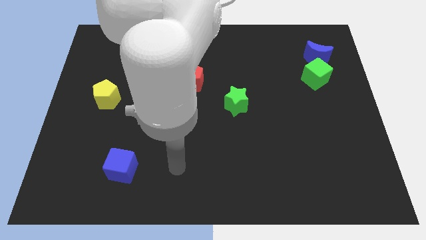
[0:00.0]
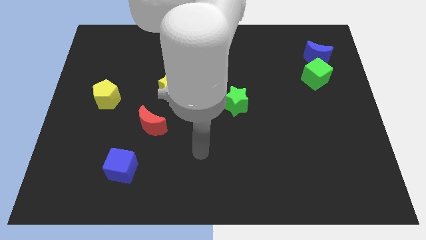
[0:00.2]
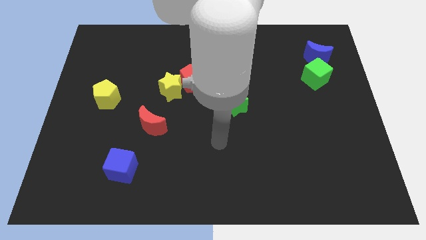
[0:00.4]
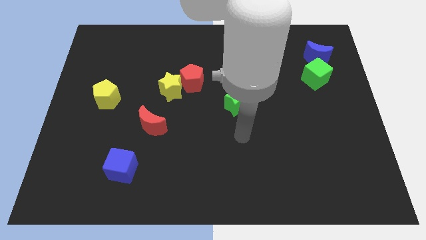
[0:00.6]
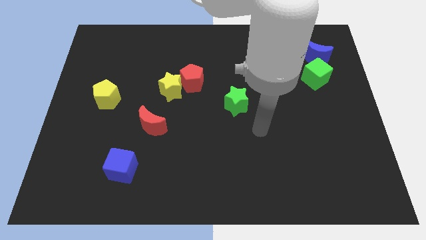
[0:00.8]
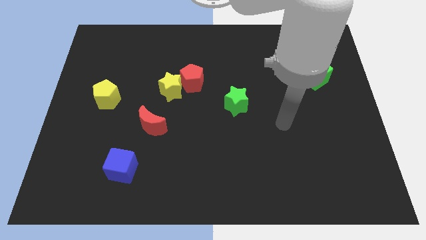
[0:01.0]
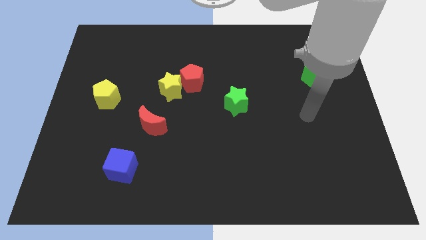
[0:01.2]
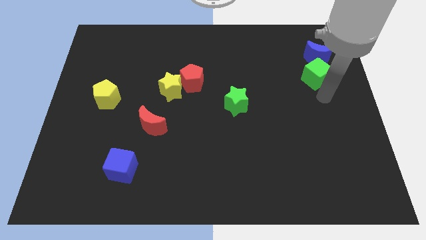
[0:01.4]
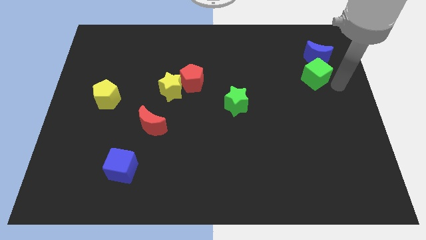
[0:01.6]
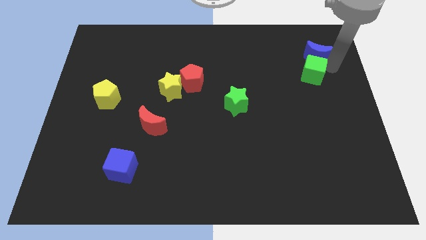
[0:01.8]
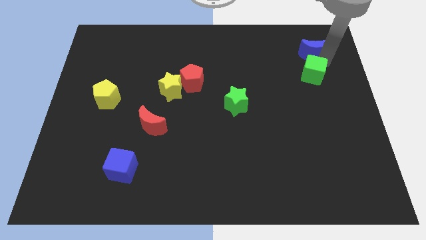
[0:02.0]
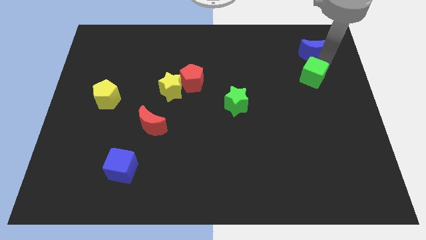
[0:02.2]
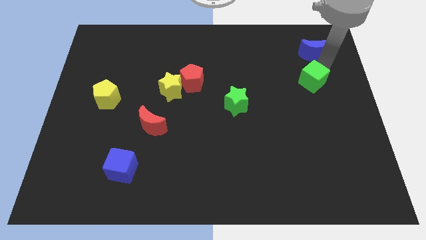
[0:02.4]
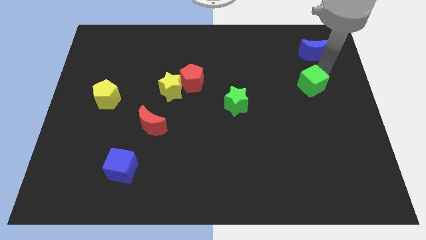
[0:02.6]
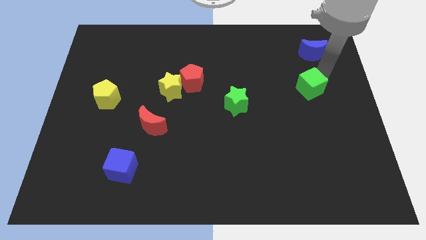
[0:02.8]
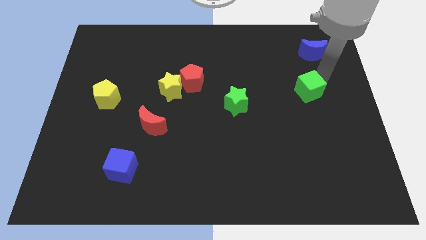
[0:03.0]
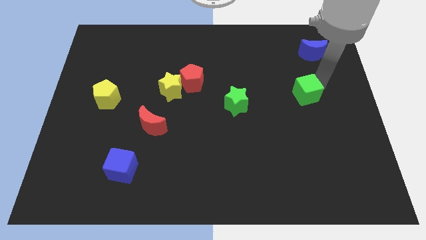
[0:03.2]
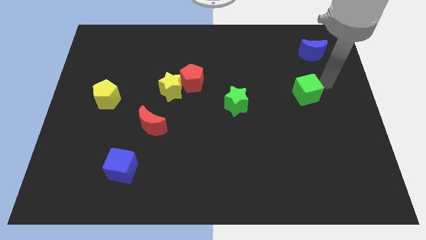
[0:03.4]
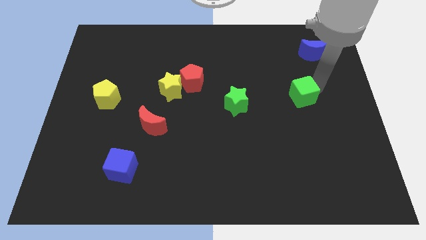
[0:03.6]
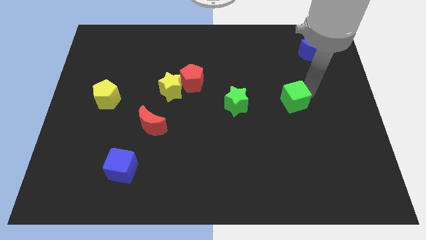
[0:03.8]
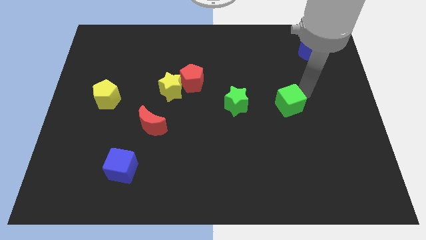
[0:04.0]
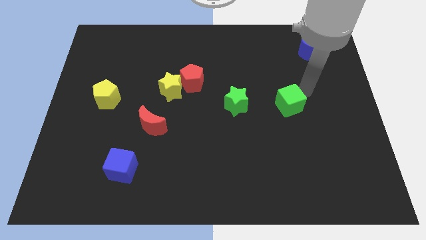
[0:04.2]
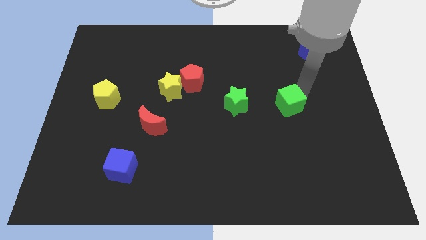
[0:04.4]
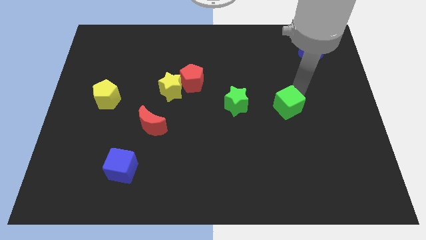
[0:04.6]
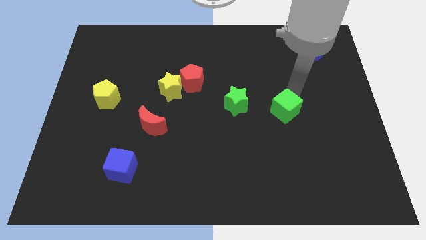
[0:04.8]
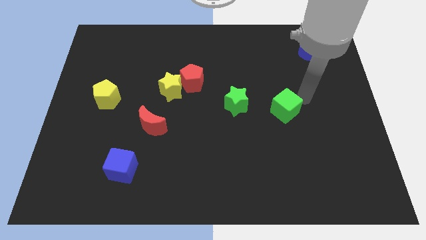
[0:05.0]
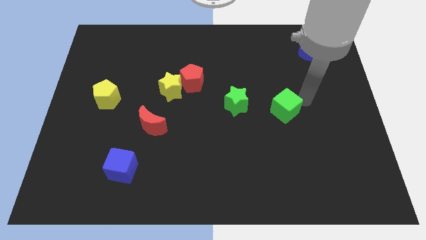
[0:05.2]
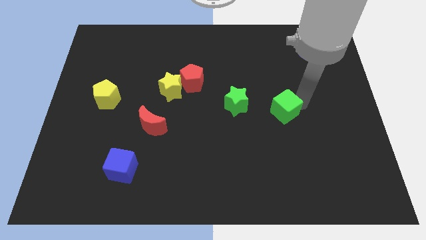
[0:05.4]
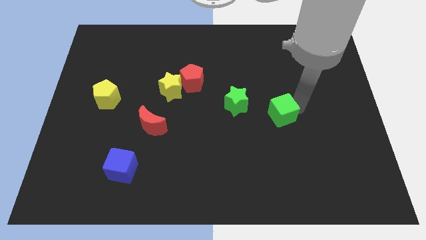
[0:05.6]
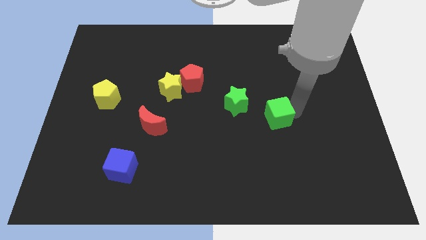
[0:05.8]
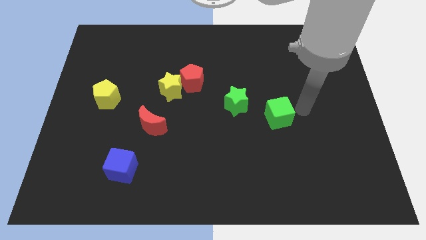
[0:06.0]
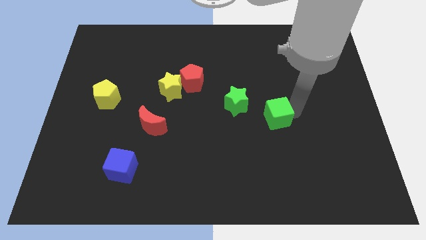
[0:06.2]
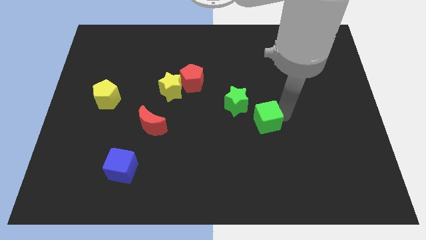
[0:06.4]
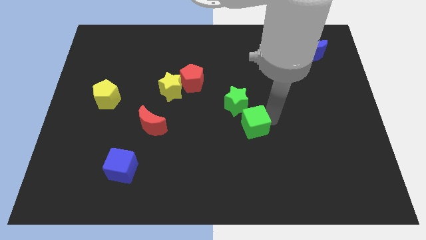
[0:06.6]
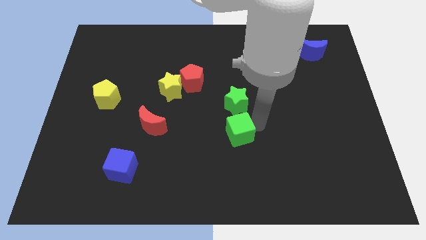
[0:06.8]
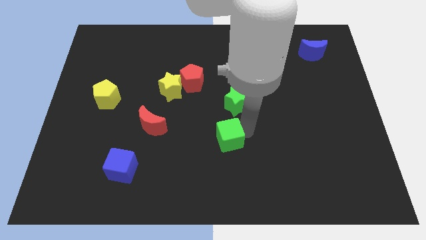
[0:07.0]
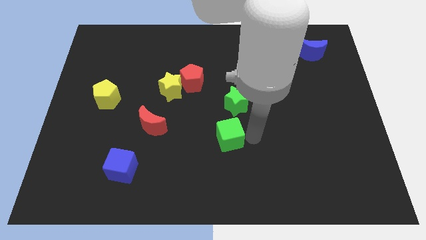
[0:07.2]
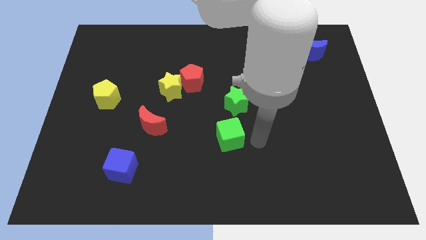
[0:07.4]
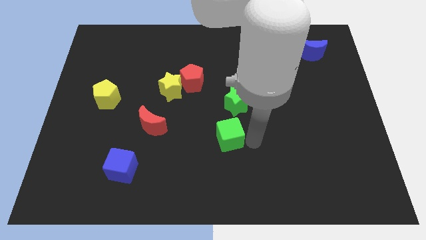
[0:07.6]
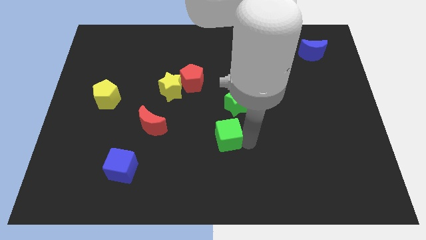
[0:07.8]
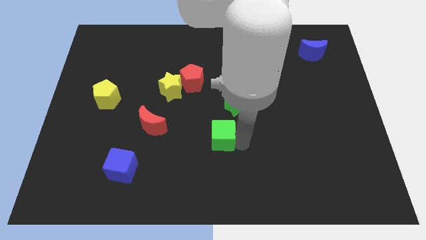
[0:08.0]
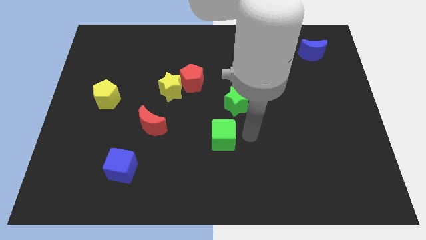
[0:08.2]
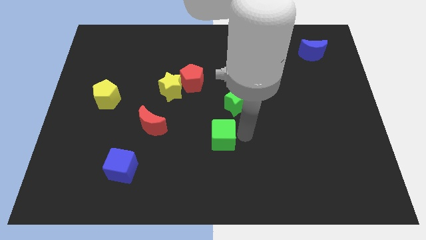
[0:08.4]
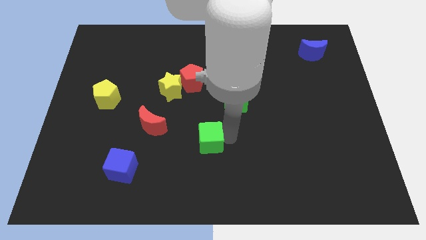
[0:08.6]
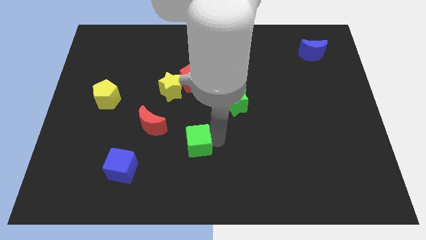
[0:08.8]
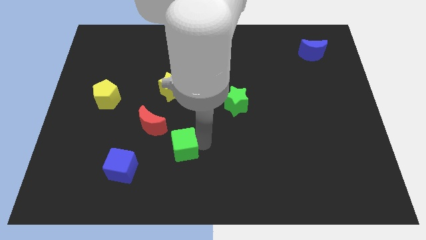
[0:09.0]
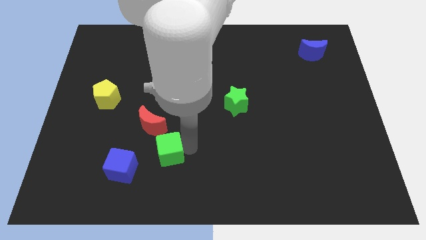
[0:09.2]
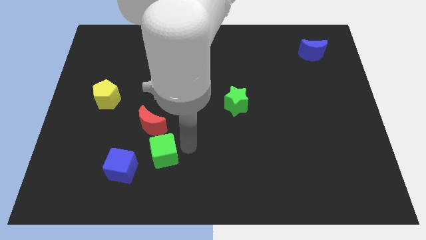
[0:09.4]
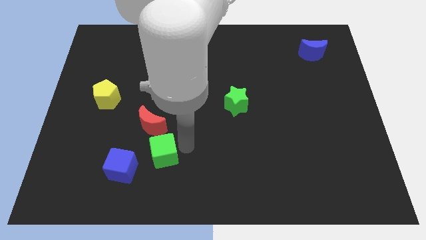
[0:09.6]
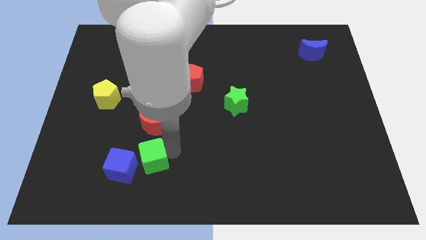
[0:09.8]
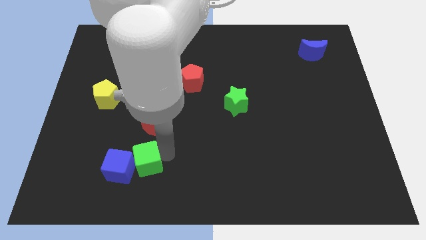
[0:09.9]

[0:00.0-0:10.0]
push the green cube towards the blue cube

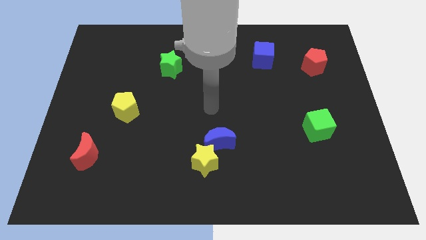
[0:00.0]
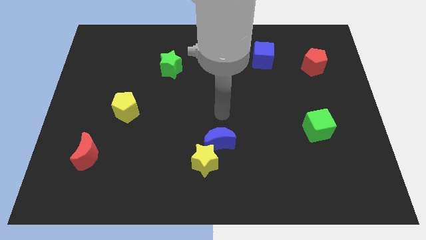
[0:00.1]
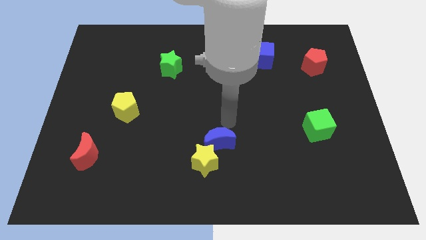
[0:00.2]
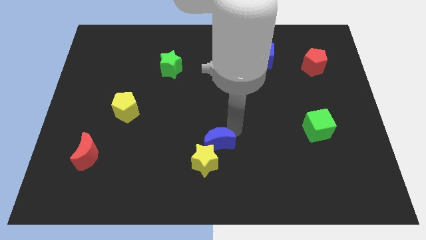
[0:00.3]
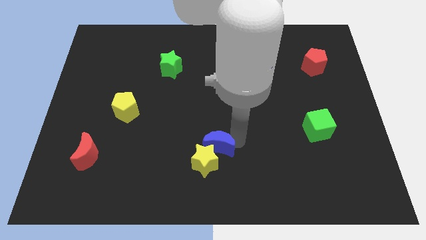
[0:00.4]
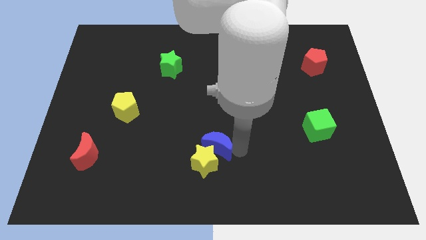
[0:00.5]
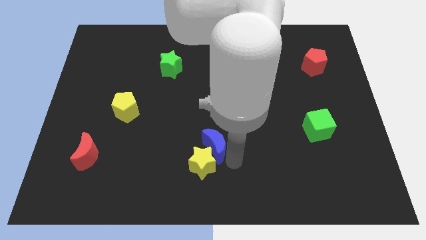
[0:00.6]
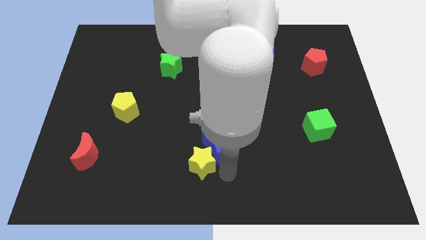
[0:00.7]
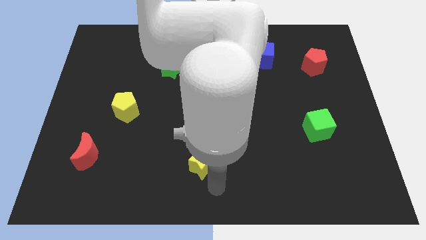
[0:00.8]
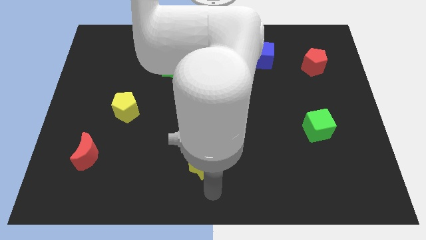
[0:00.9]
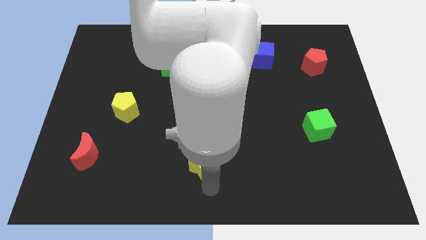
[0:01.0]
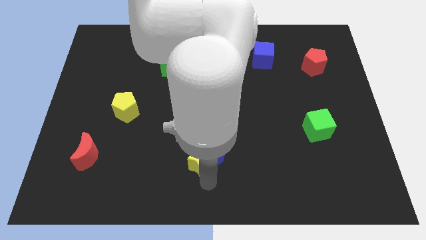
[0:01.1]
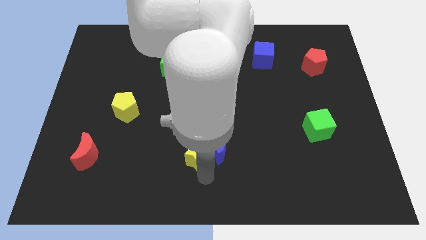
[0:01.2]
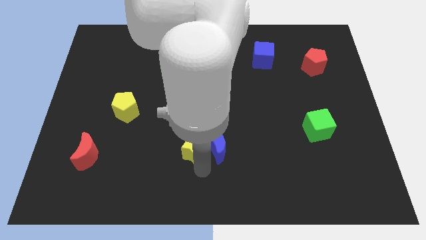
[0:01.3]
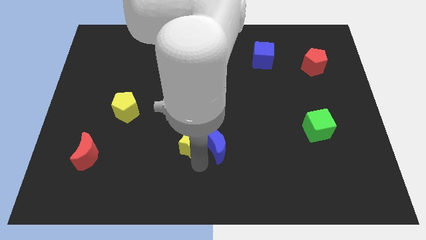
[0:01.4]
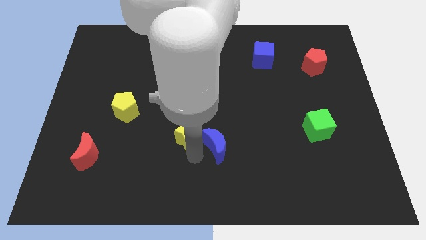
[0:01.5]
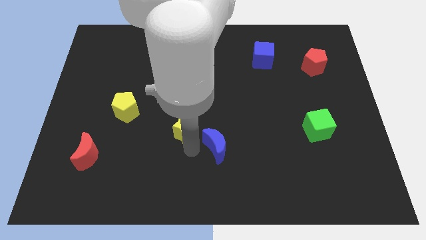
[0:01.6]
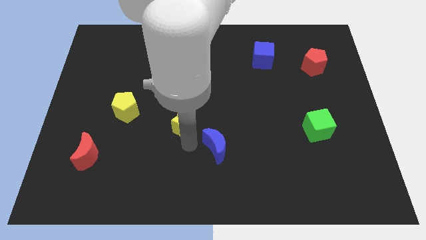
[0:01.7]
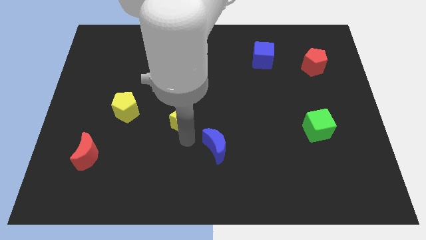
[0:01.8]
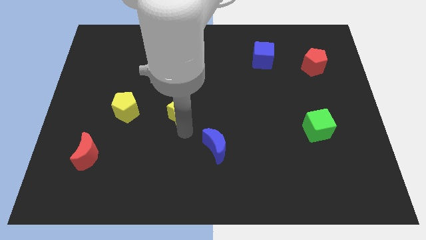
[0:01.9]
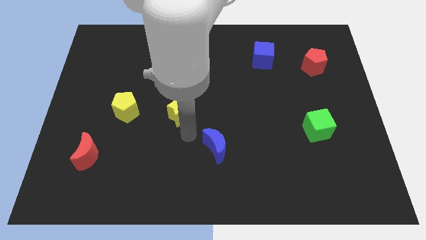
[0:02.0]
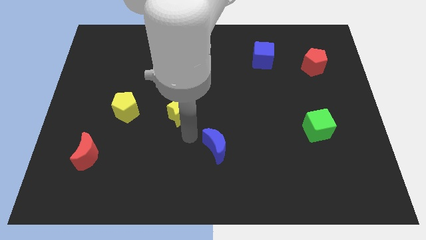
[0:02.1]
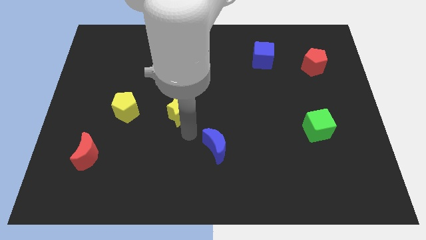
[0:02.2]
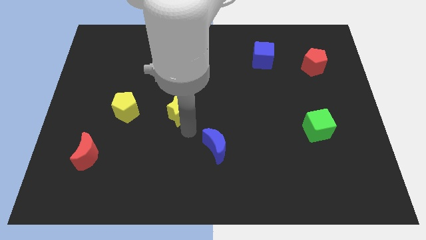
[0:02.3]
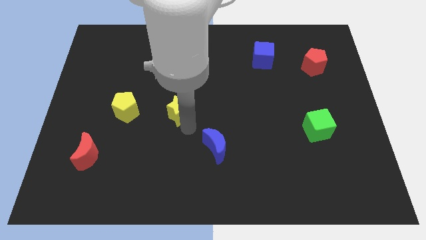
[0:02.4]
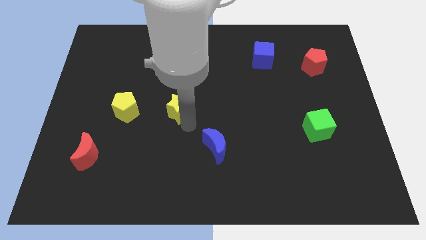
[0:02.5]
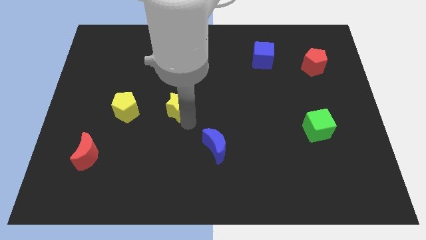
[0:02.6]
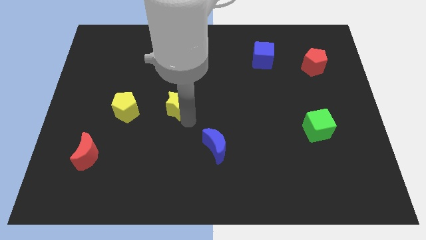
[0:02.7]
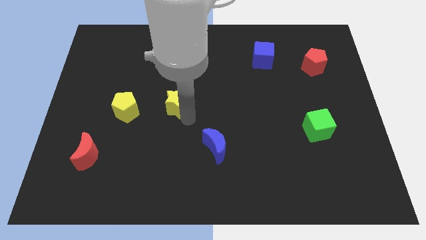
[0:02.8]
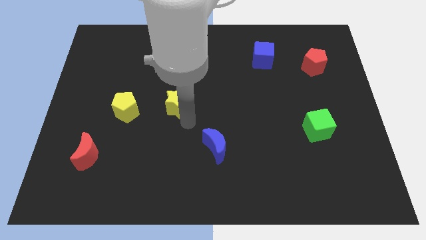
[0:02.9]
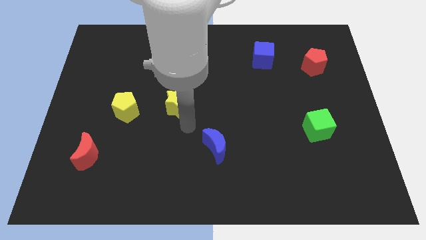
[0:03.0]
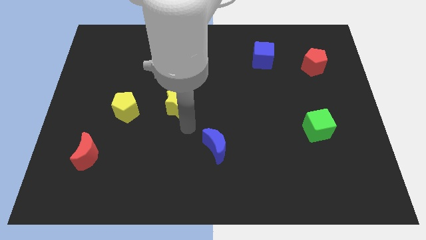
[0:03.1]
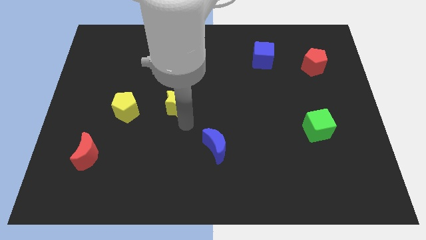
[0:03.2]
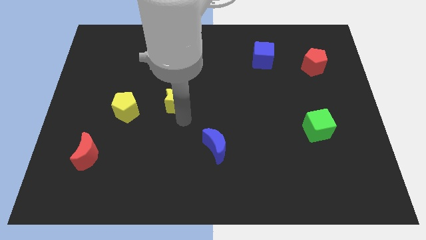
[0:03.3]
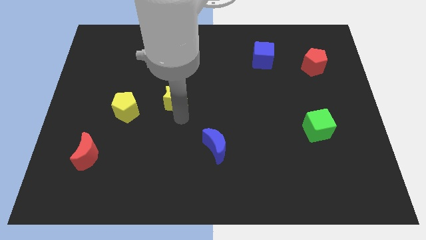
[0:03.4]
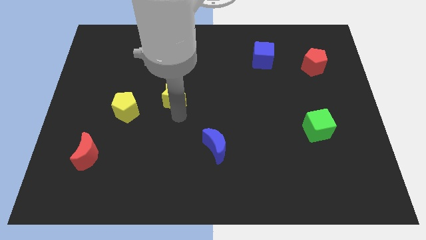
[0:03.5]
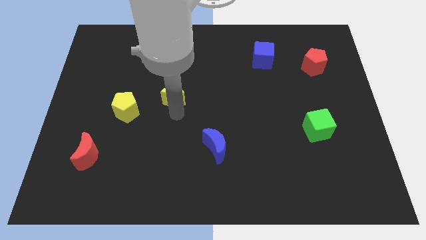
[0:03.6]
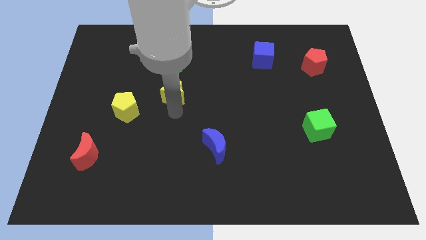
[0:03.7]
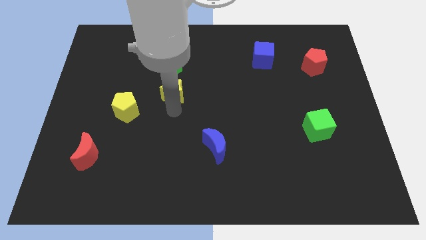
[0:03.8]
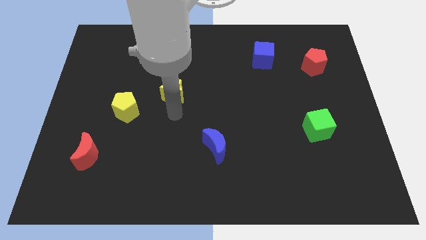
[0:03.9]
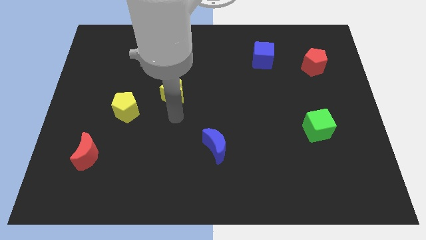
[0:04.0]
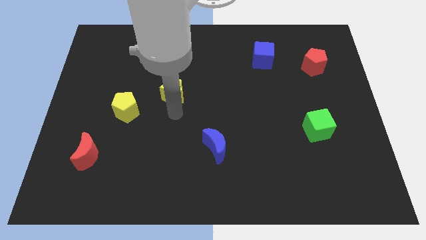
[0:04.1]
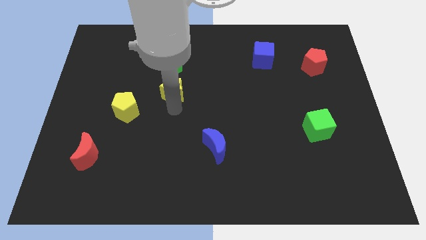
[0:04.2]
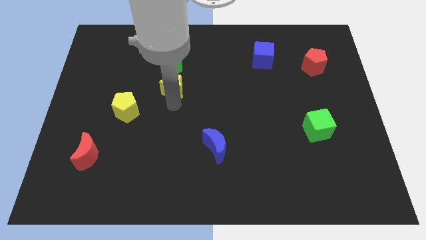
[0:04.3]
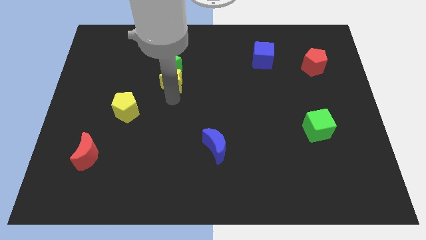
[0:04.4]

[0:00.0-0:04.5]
put the yellow star to the green star
